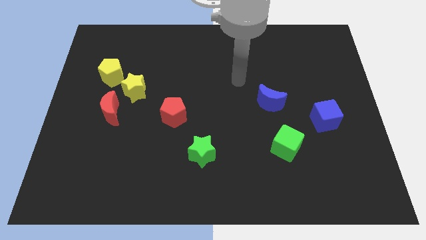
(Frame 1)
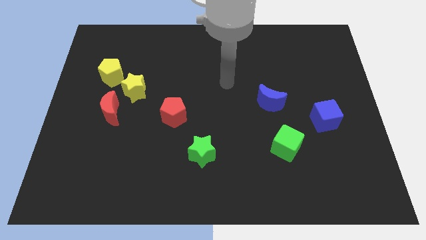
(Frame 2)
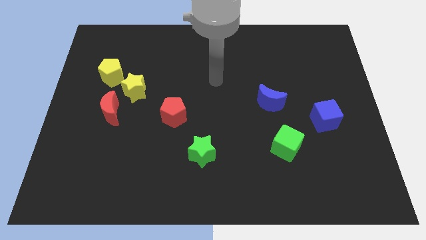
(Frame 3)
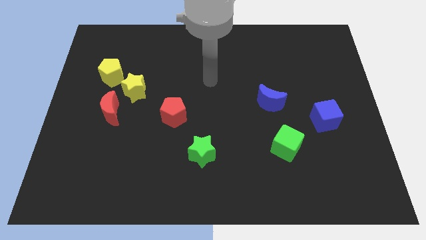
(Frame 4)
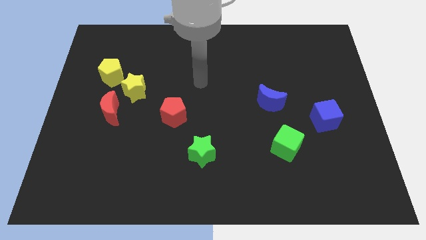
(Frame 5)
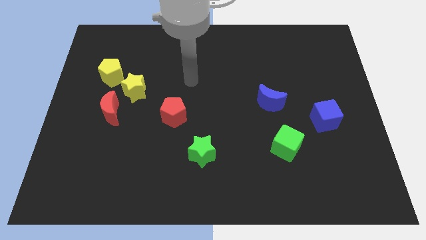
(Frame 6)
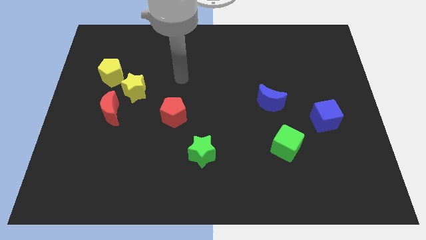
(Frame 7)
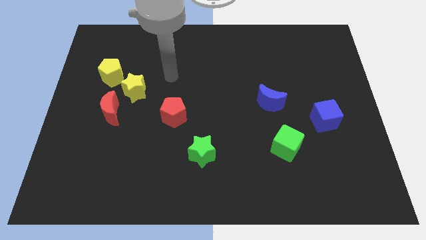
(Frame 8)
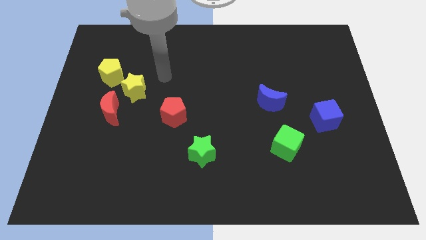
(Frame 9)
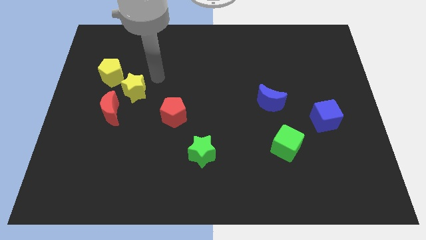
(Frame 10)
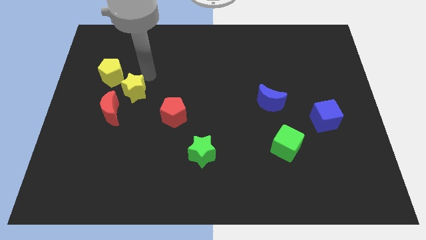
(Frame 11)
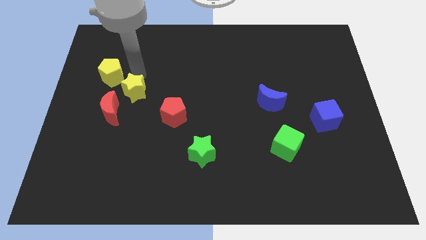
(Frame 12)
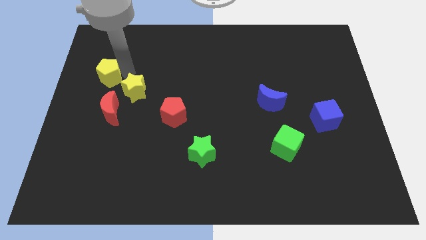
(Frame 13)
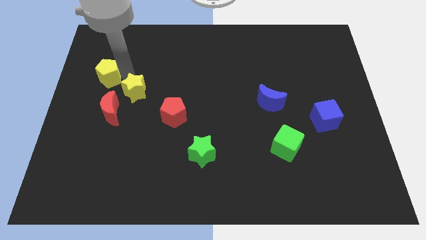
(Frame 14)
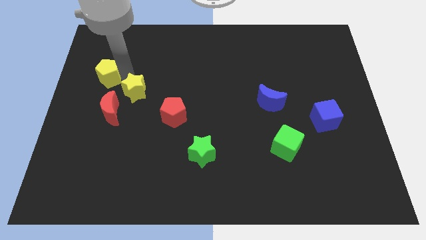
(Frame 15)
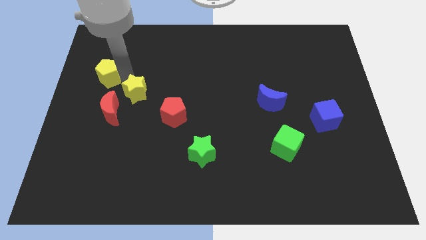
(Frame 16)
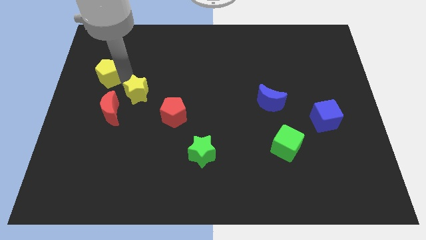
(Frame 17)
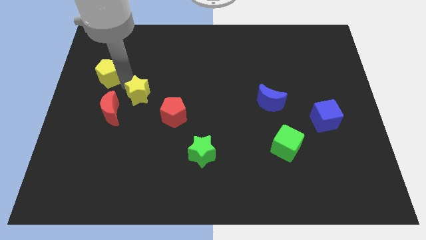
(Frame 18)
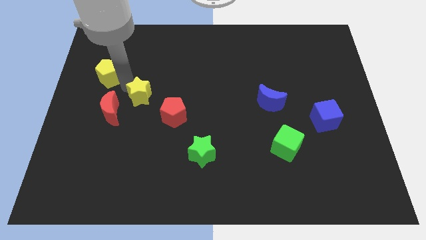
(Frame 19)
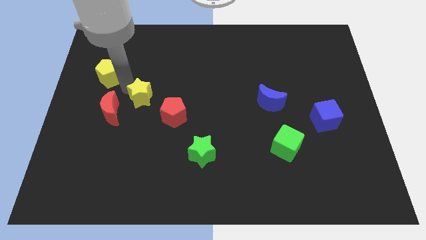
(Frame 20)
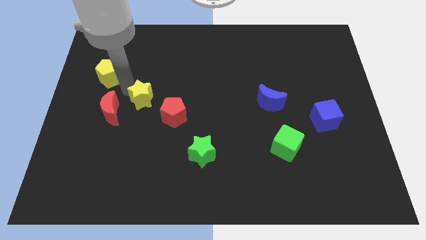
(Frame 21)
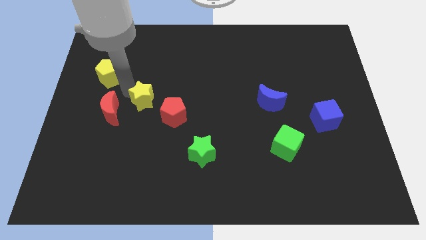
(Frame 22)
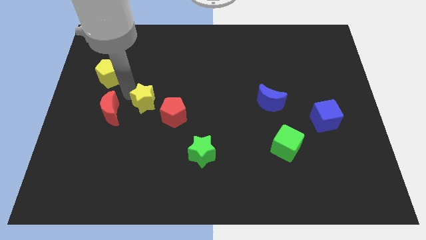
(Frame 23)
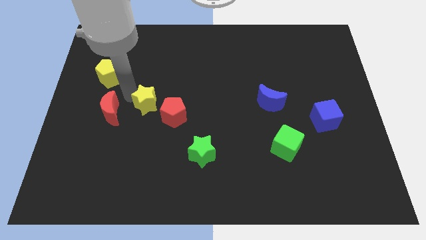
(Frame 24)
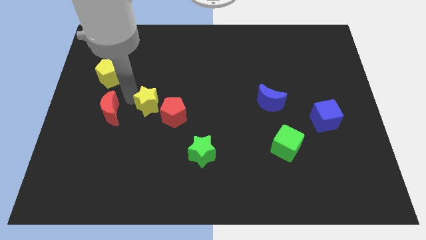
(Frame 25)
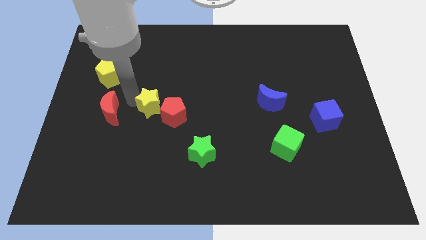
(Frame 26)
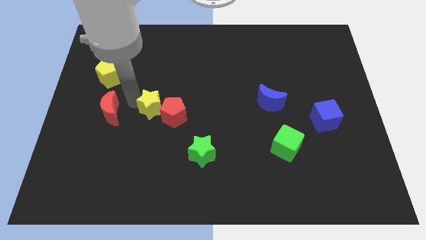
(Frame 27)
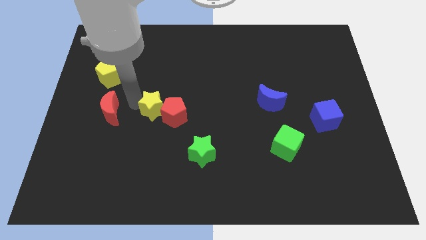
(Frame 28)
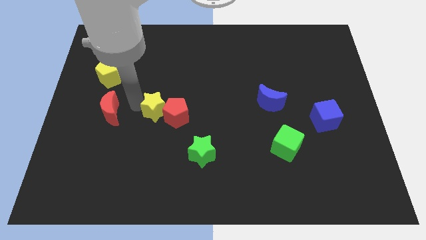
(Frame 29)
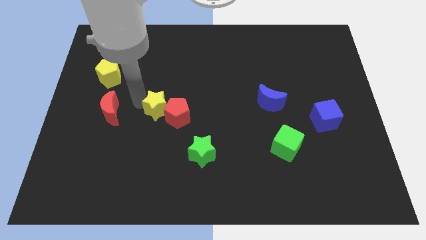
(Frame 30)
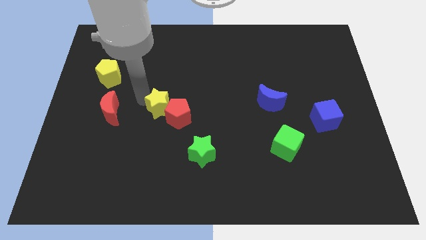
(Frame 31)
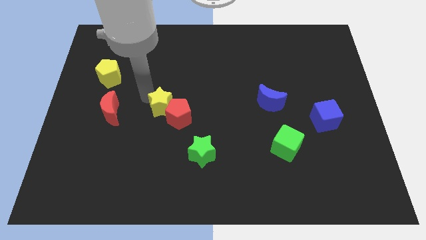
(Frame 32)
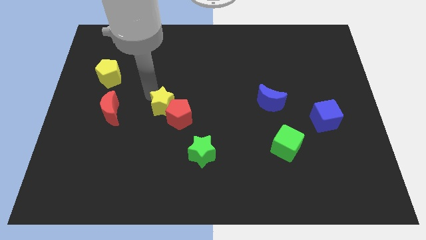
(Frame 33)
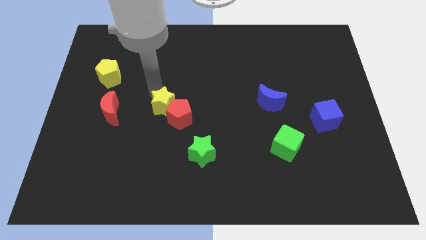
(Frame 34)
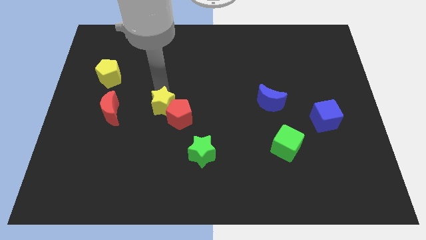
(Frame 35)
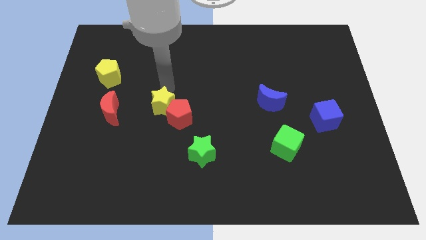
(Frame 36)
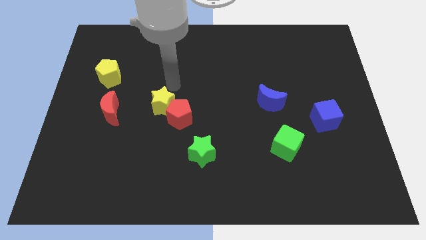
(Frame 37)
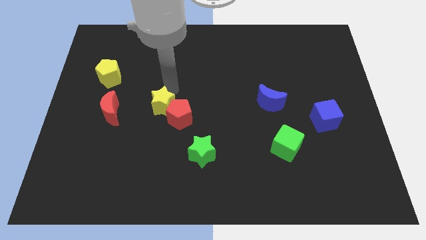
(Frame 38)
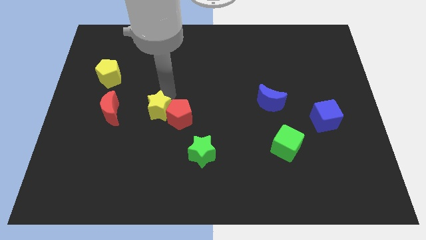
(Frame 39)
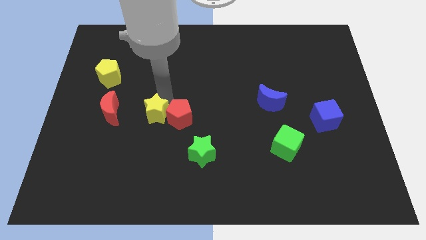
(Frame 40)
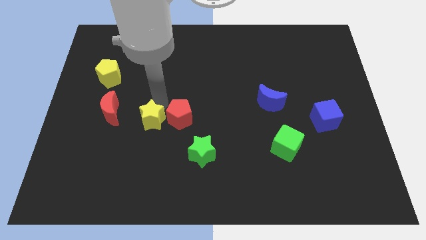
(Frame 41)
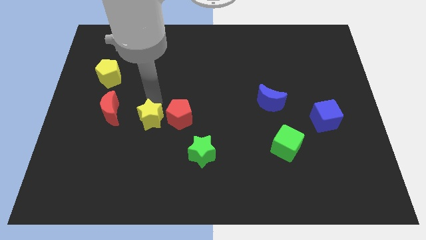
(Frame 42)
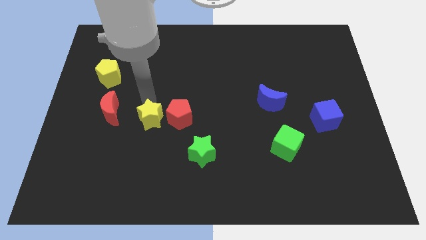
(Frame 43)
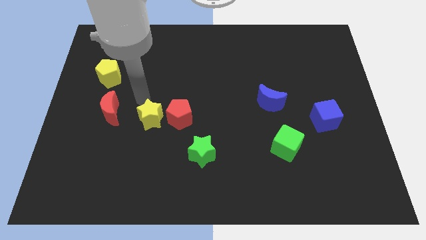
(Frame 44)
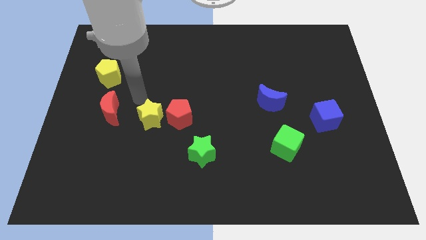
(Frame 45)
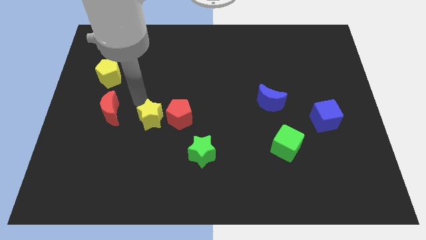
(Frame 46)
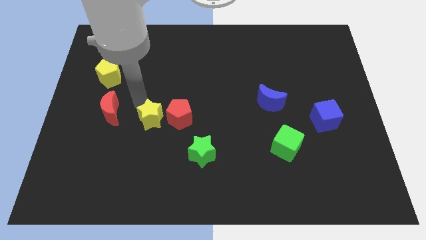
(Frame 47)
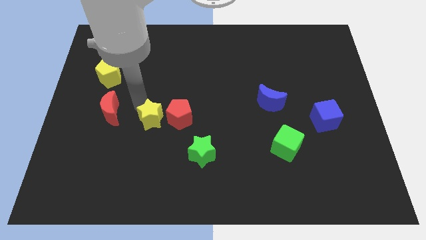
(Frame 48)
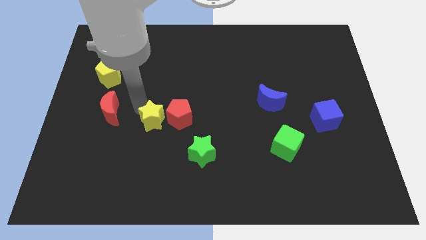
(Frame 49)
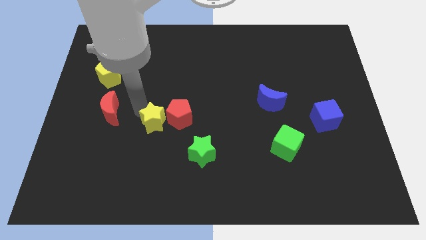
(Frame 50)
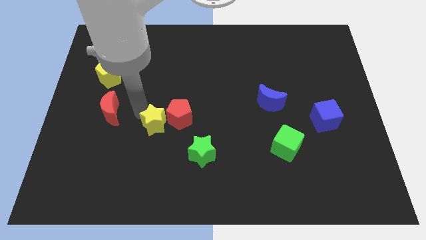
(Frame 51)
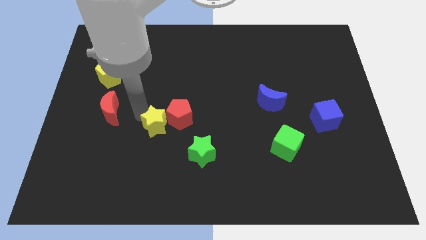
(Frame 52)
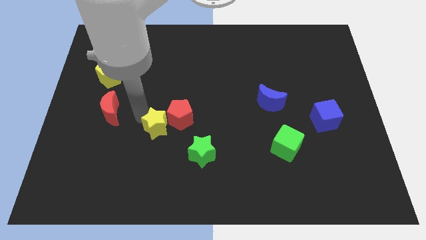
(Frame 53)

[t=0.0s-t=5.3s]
slide the yellow star to the top left side of the green star

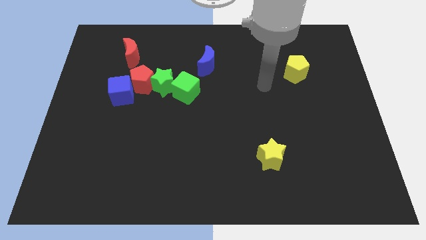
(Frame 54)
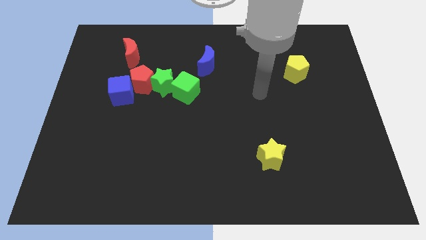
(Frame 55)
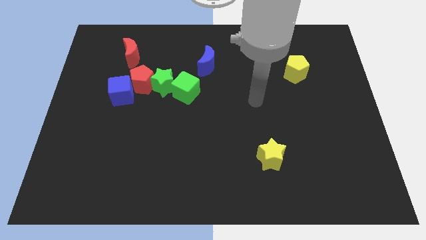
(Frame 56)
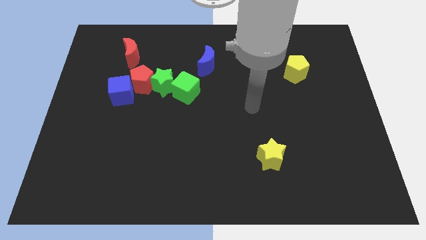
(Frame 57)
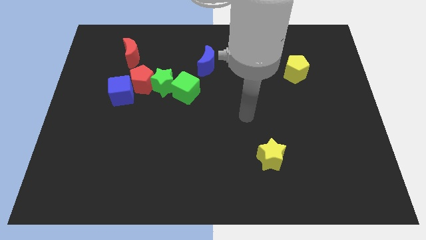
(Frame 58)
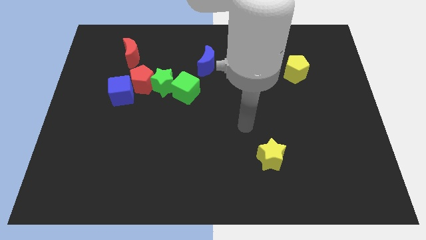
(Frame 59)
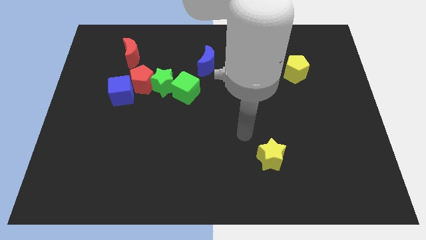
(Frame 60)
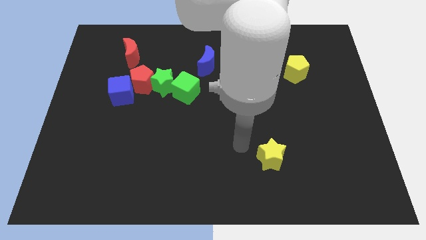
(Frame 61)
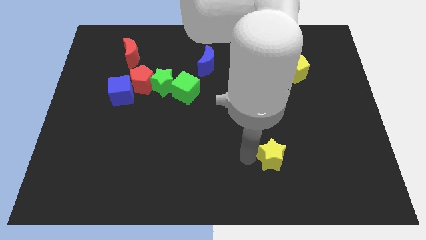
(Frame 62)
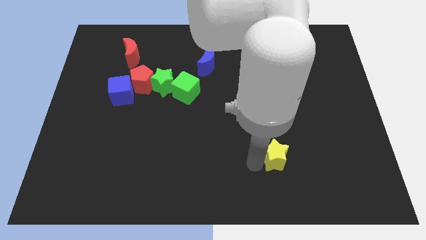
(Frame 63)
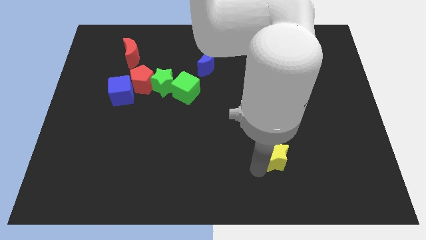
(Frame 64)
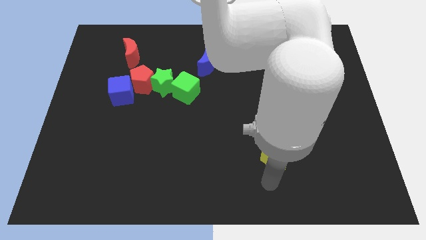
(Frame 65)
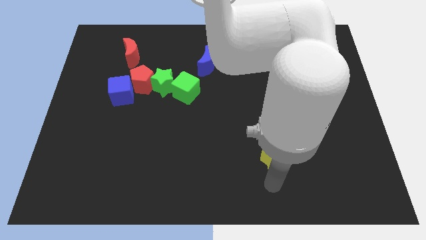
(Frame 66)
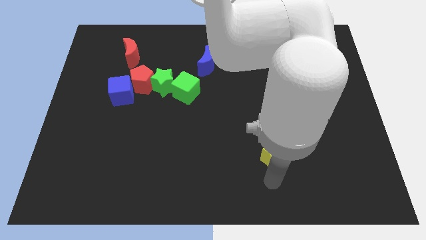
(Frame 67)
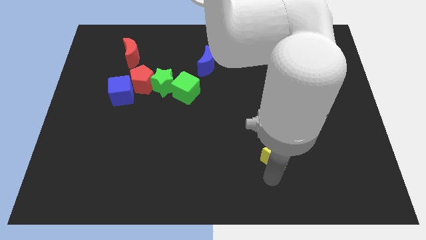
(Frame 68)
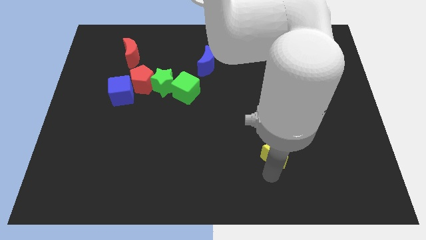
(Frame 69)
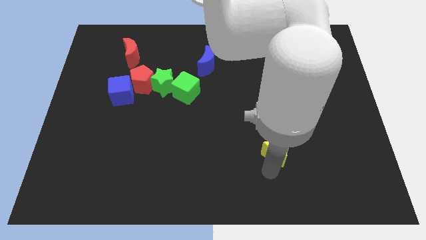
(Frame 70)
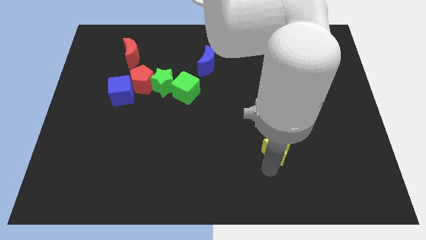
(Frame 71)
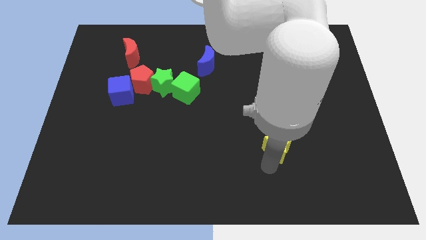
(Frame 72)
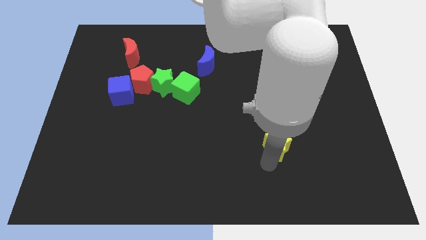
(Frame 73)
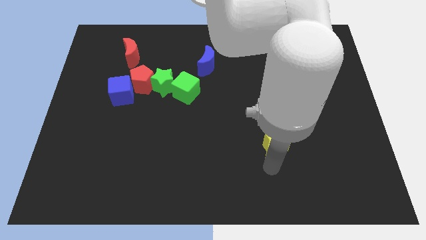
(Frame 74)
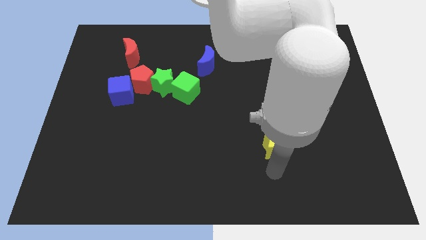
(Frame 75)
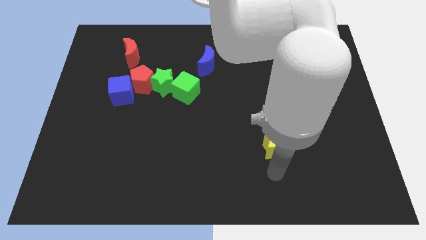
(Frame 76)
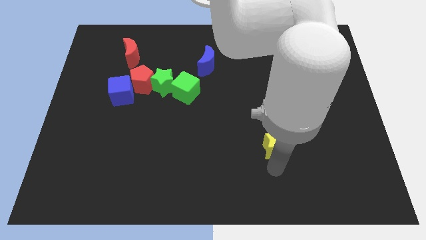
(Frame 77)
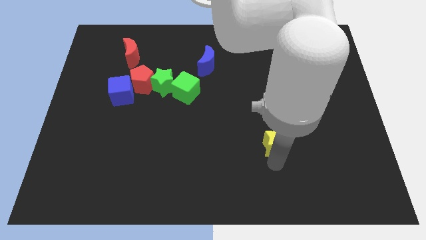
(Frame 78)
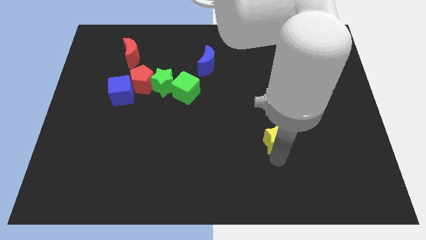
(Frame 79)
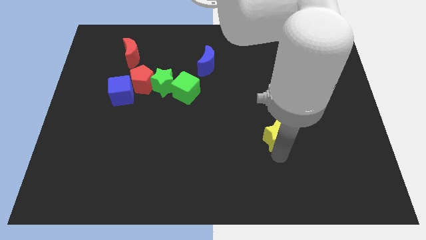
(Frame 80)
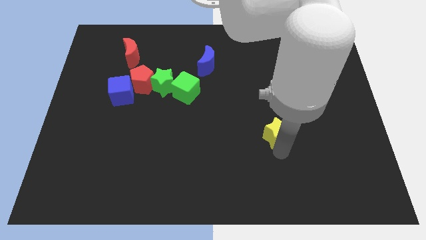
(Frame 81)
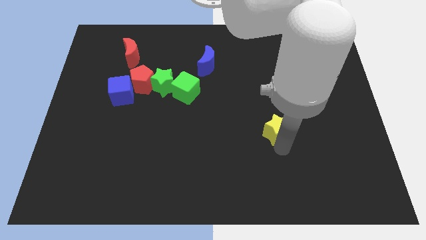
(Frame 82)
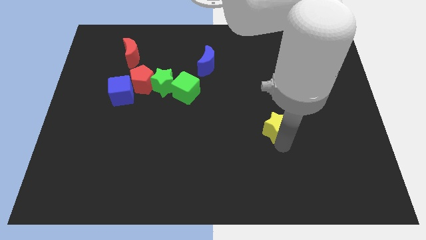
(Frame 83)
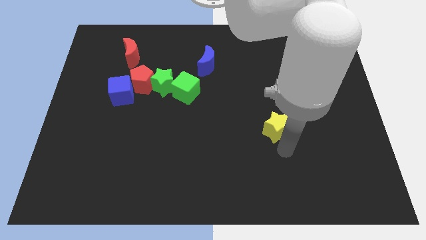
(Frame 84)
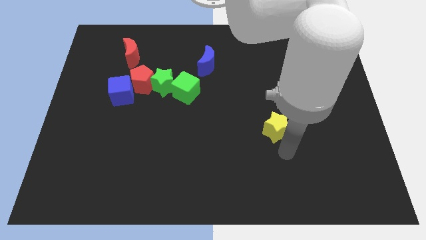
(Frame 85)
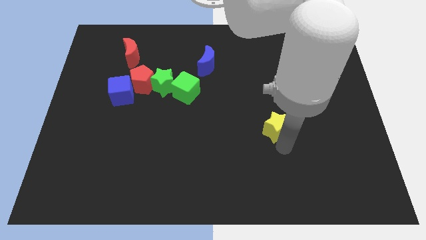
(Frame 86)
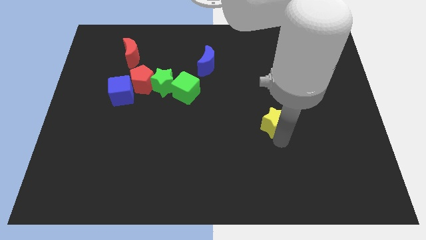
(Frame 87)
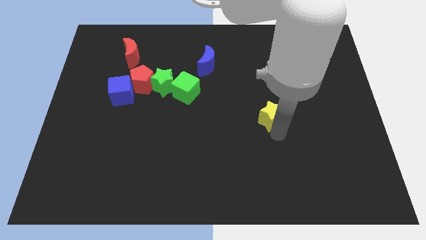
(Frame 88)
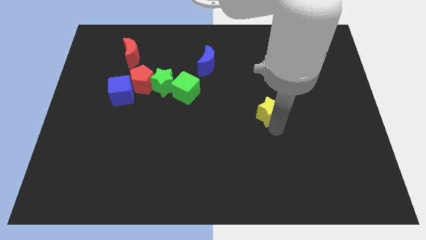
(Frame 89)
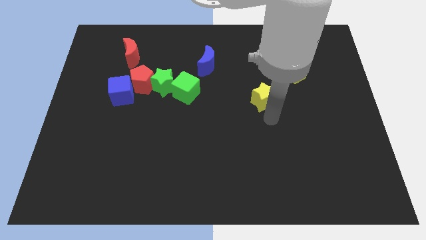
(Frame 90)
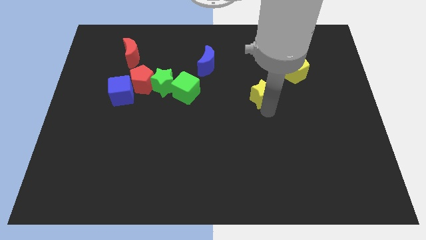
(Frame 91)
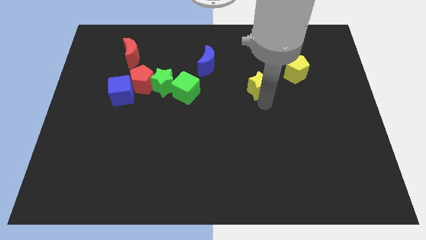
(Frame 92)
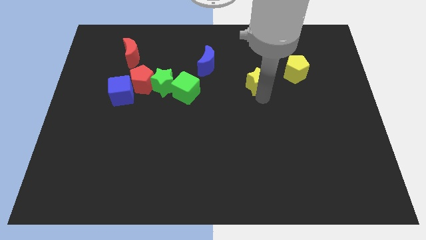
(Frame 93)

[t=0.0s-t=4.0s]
move the yellow star to the left of the yellow pentagon
